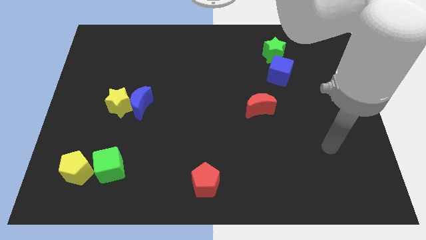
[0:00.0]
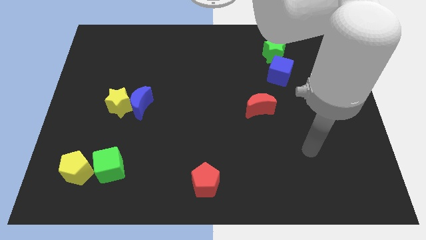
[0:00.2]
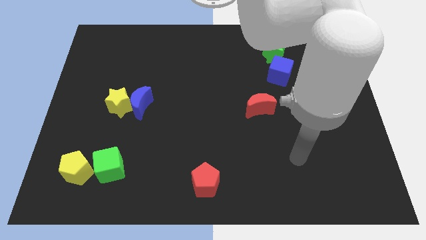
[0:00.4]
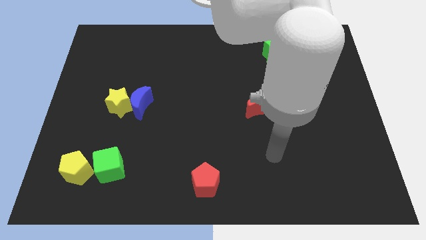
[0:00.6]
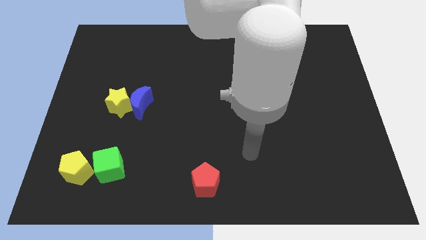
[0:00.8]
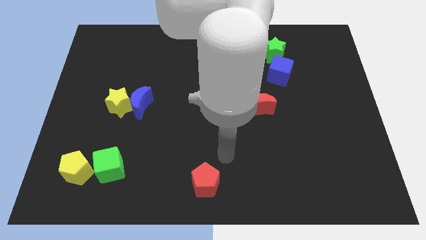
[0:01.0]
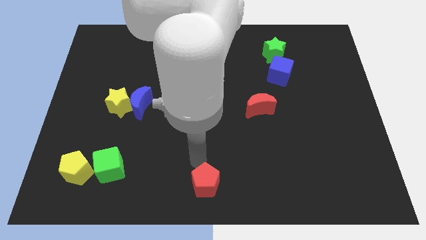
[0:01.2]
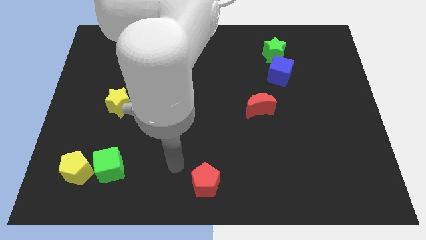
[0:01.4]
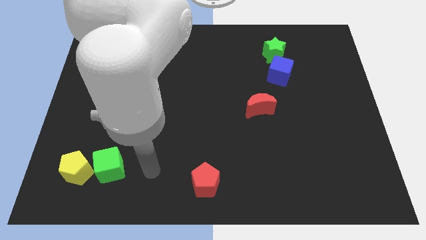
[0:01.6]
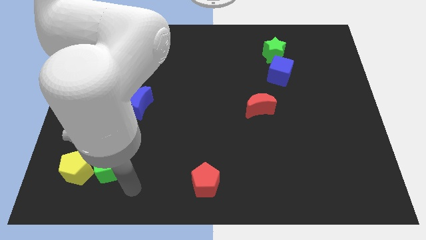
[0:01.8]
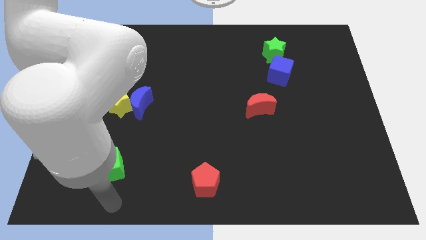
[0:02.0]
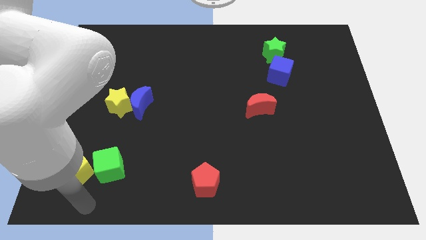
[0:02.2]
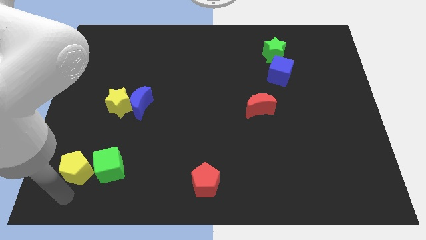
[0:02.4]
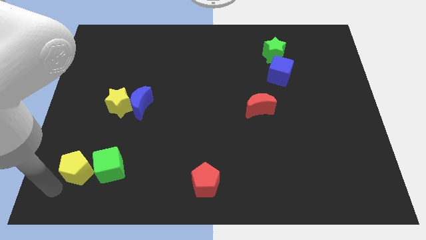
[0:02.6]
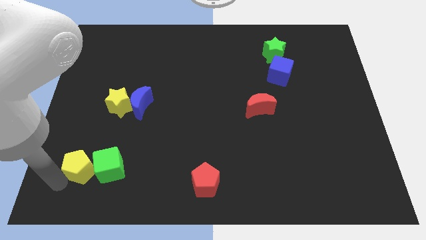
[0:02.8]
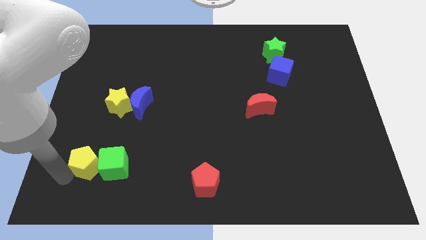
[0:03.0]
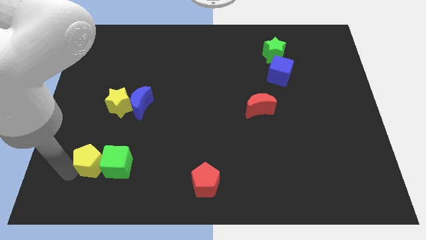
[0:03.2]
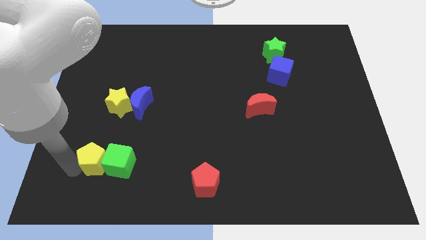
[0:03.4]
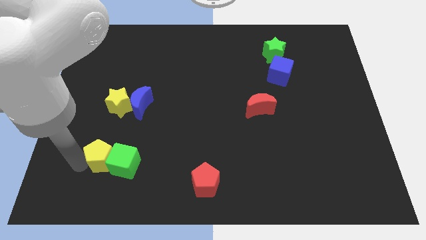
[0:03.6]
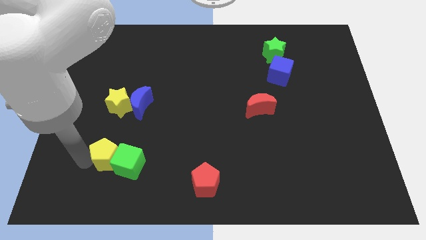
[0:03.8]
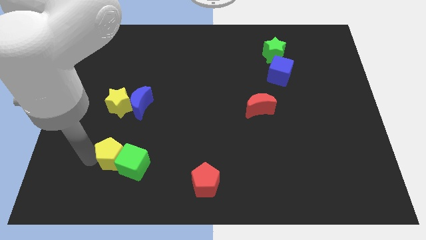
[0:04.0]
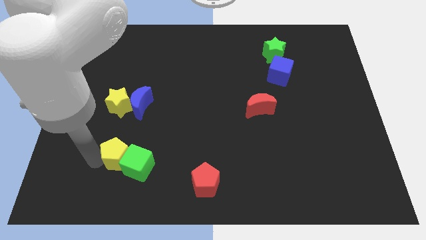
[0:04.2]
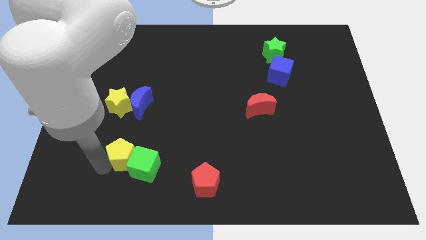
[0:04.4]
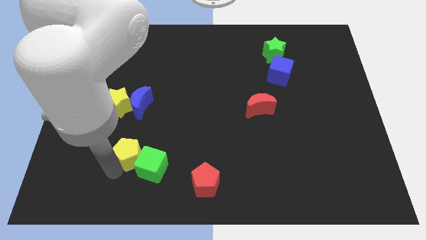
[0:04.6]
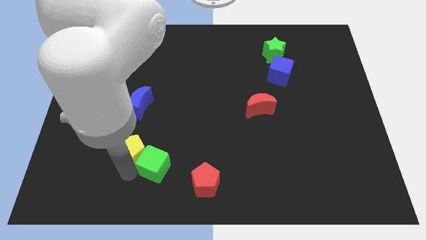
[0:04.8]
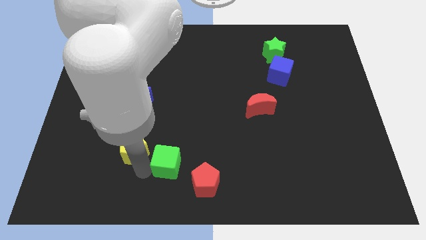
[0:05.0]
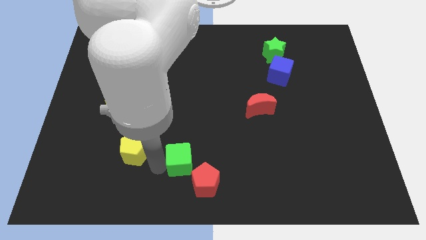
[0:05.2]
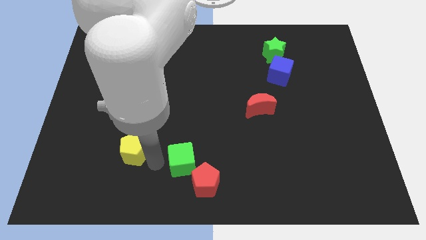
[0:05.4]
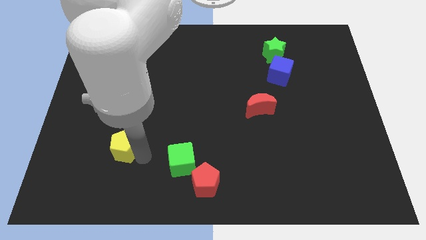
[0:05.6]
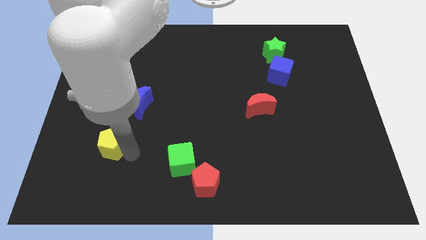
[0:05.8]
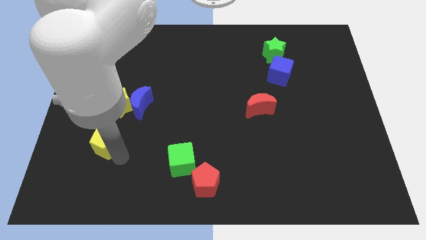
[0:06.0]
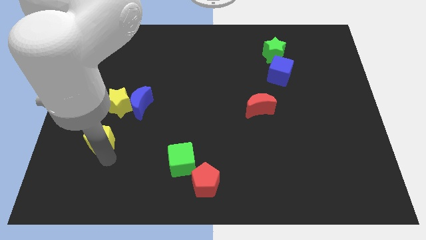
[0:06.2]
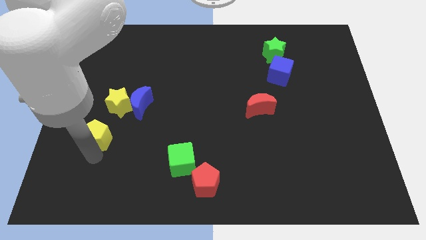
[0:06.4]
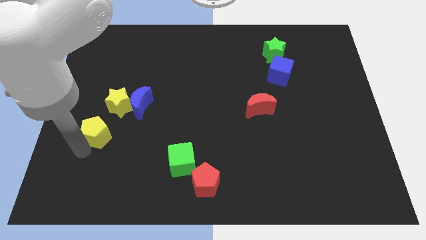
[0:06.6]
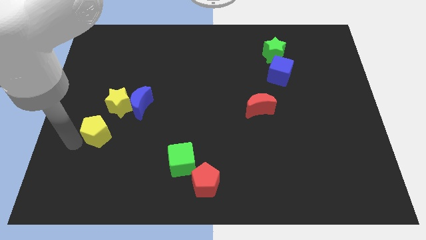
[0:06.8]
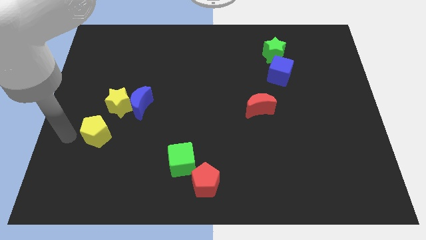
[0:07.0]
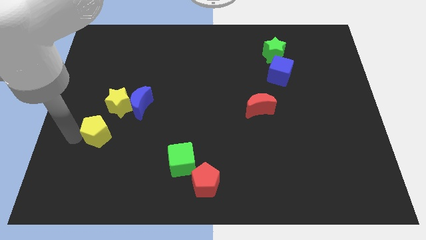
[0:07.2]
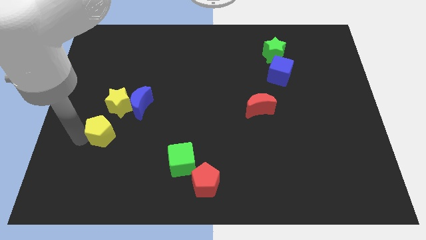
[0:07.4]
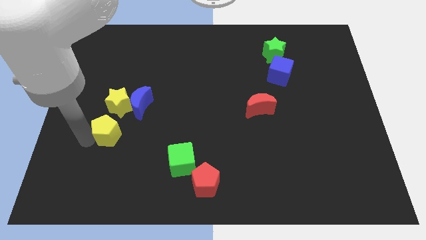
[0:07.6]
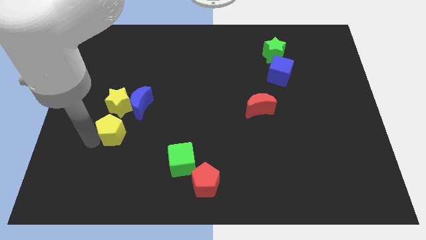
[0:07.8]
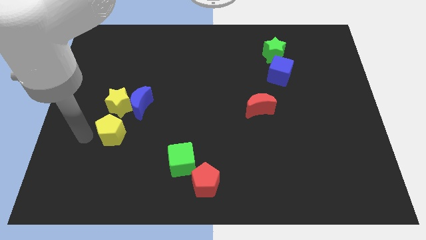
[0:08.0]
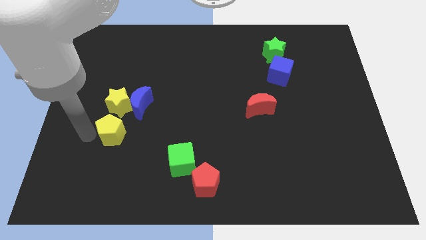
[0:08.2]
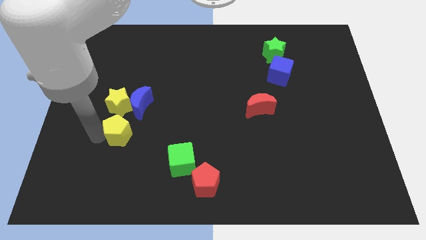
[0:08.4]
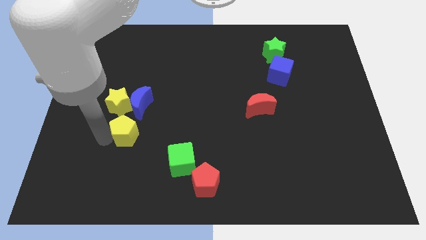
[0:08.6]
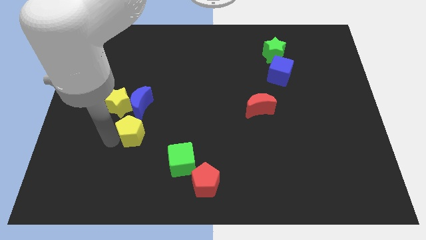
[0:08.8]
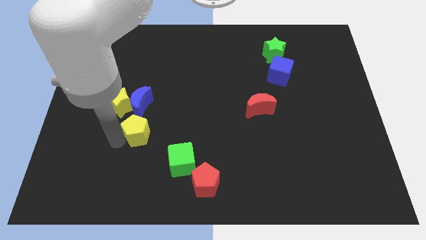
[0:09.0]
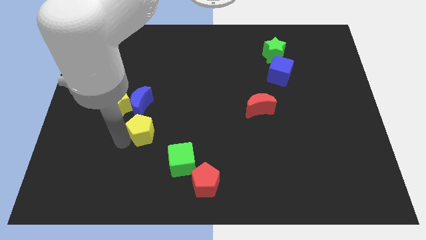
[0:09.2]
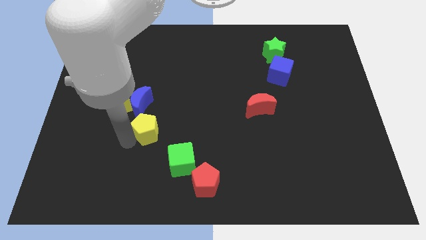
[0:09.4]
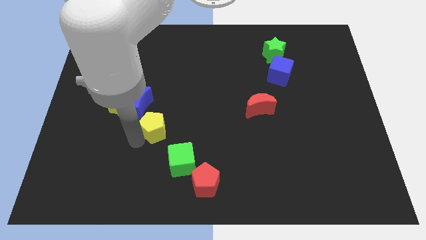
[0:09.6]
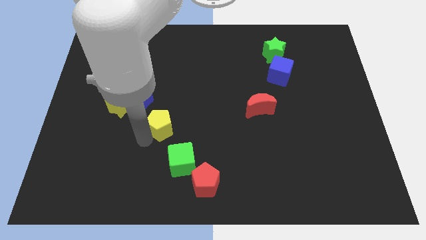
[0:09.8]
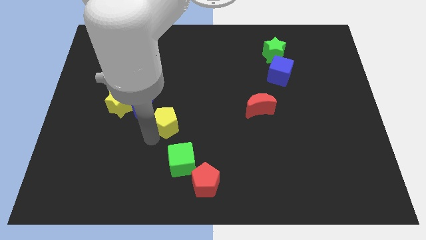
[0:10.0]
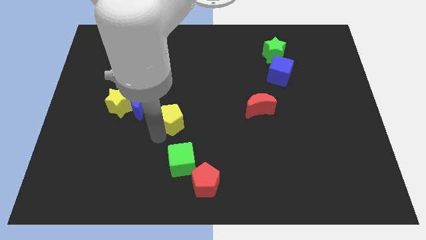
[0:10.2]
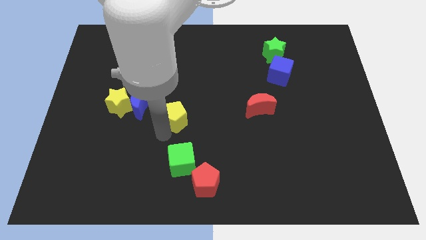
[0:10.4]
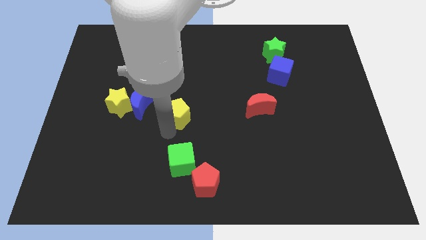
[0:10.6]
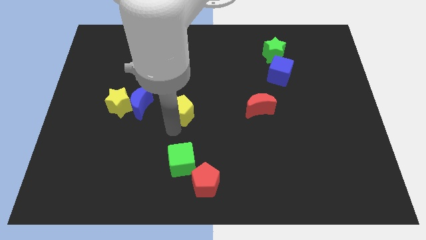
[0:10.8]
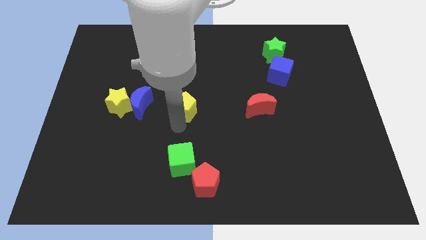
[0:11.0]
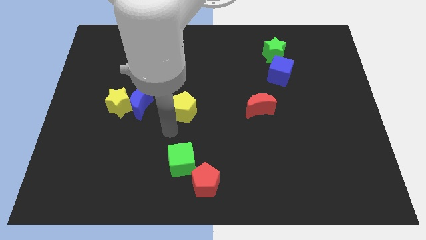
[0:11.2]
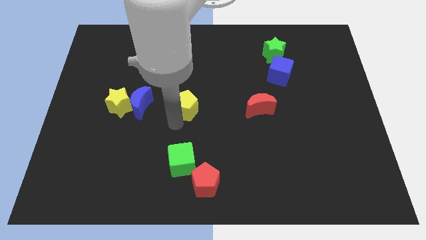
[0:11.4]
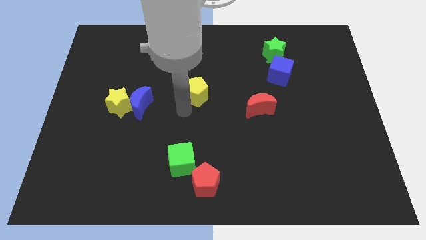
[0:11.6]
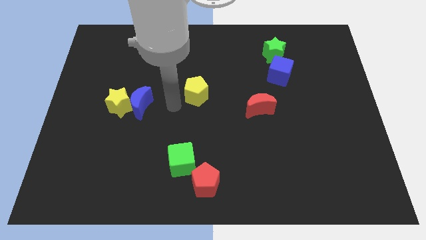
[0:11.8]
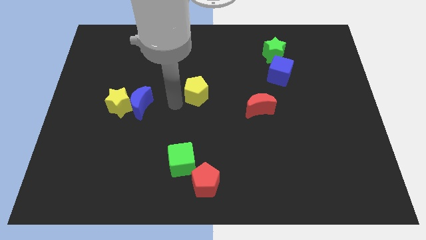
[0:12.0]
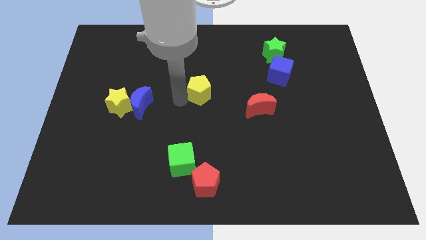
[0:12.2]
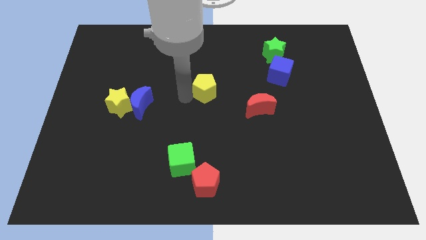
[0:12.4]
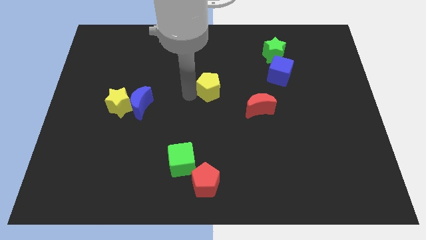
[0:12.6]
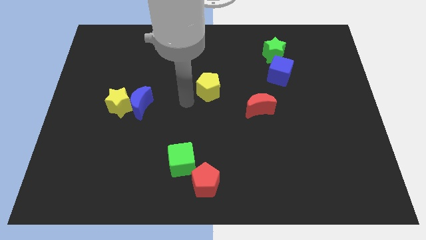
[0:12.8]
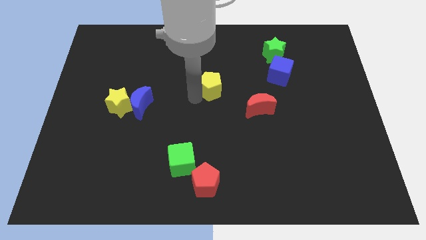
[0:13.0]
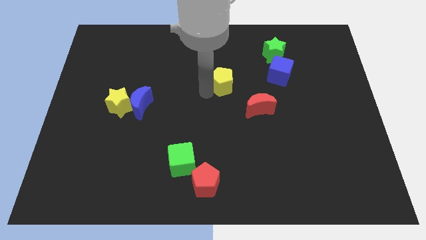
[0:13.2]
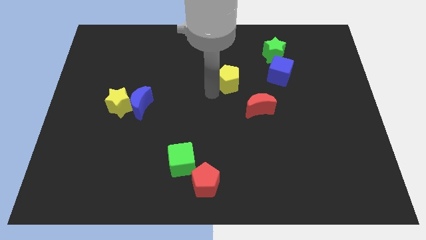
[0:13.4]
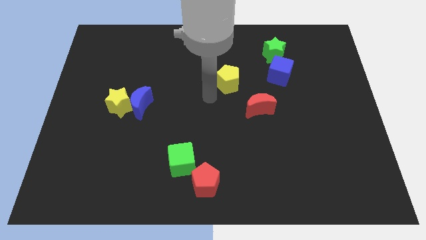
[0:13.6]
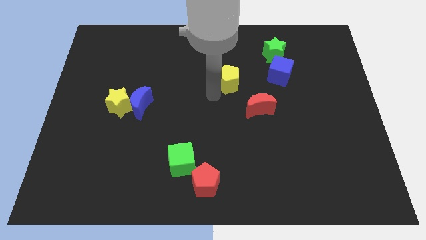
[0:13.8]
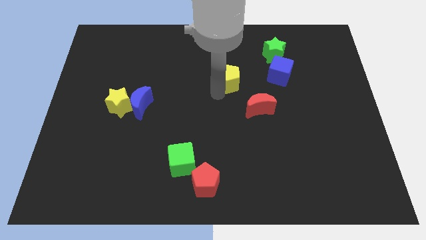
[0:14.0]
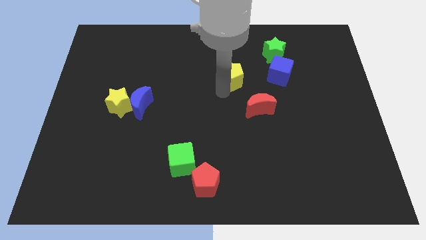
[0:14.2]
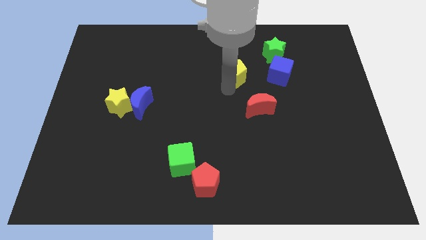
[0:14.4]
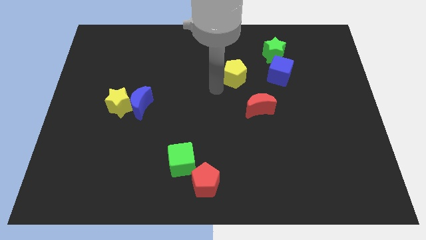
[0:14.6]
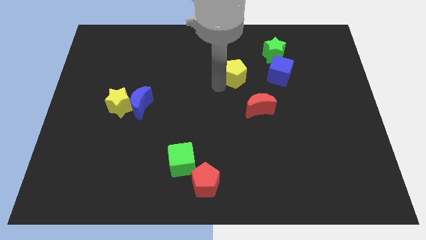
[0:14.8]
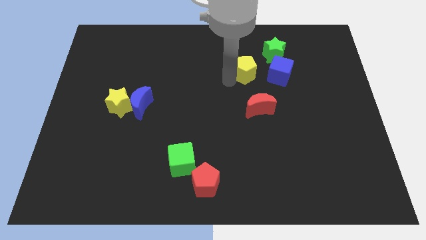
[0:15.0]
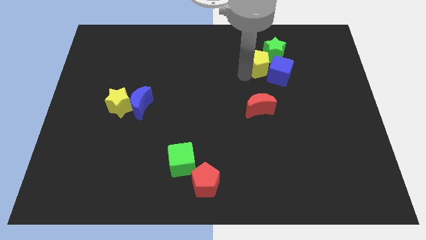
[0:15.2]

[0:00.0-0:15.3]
put the yellow pentagon next to the green star

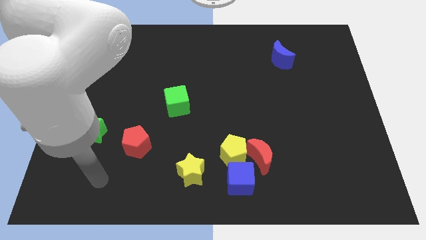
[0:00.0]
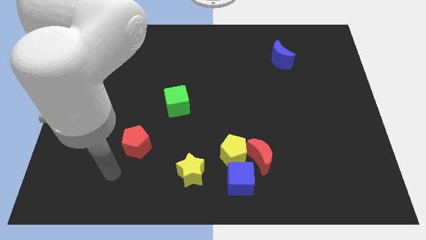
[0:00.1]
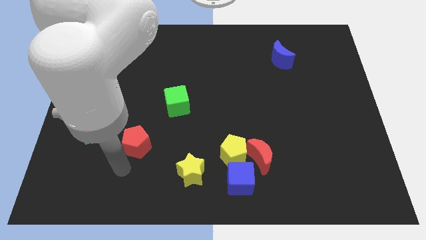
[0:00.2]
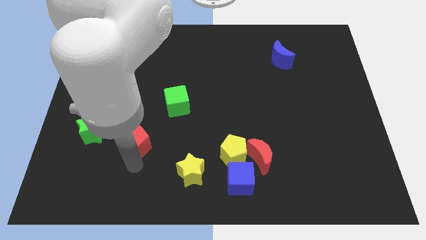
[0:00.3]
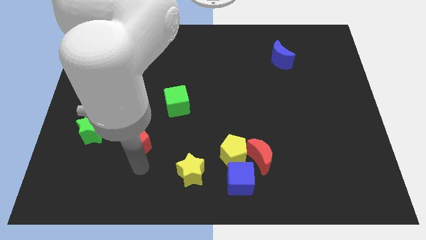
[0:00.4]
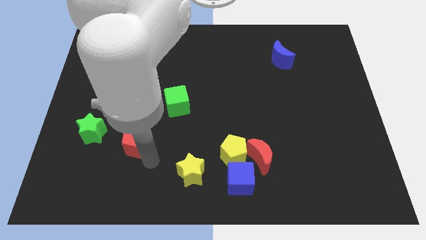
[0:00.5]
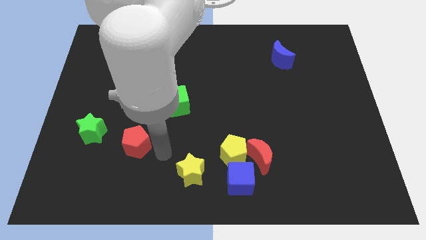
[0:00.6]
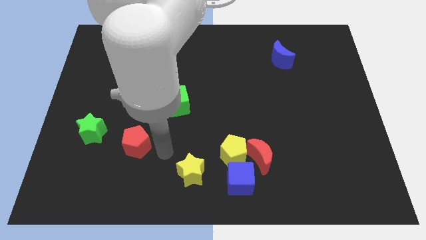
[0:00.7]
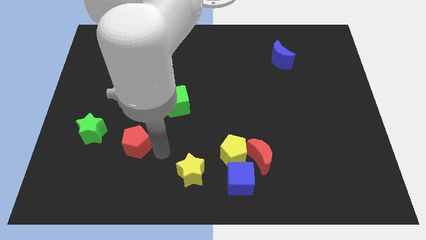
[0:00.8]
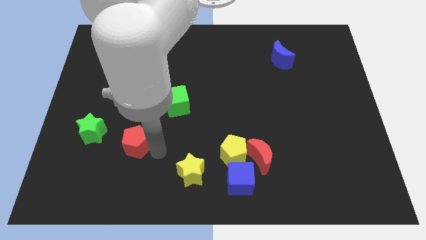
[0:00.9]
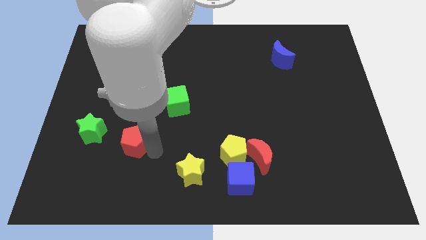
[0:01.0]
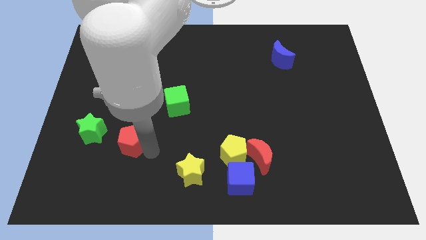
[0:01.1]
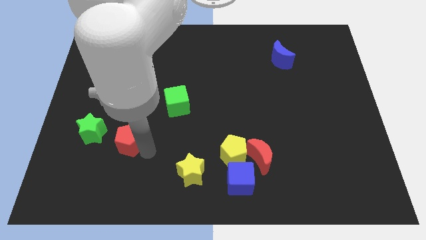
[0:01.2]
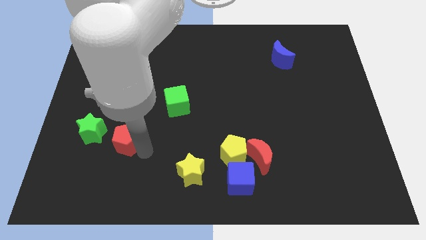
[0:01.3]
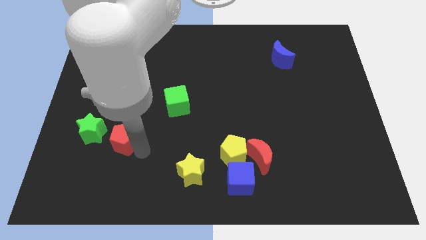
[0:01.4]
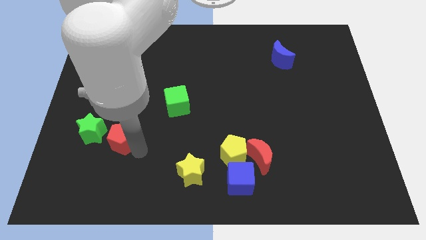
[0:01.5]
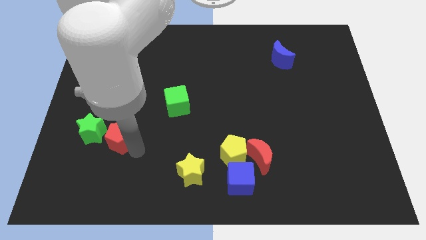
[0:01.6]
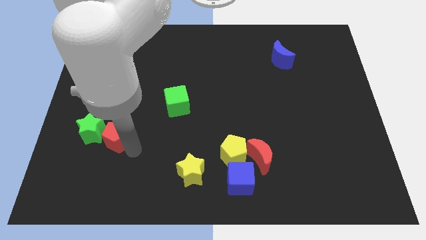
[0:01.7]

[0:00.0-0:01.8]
move the red pentagon to the green star
